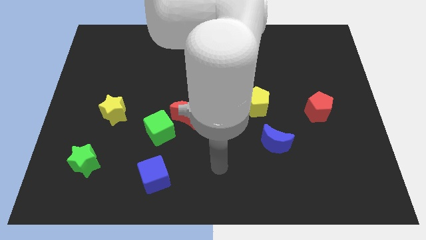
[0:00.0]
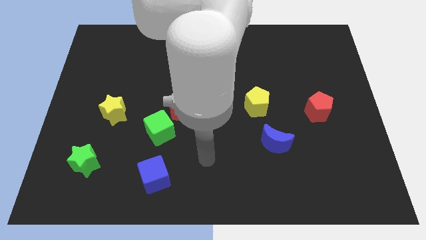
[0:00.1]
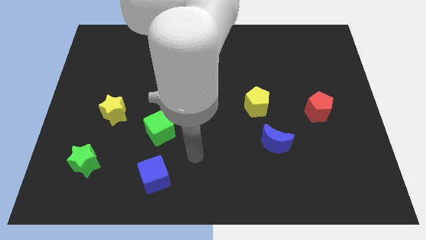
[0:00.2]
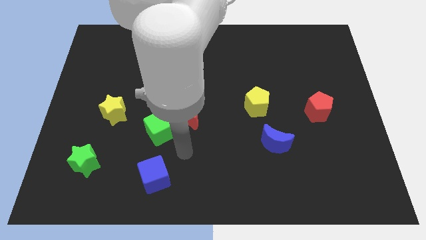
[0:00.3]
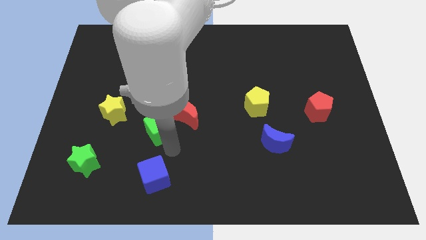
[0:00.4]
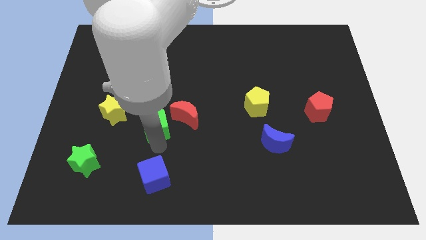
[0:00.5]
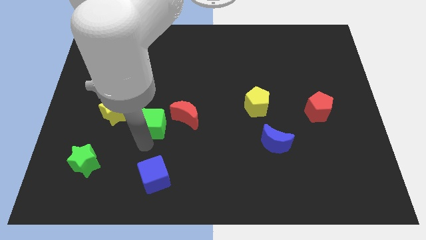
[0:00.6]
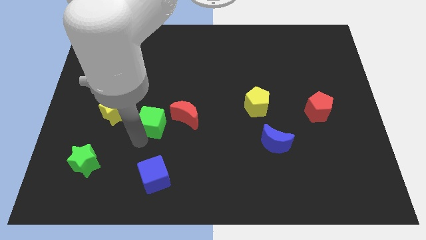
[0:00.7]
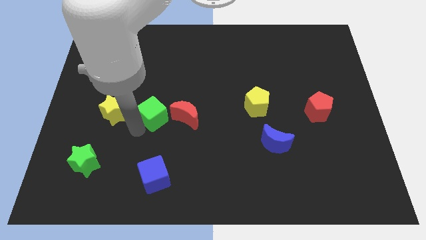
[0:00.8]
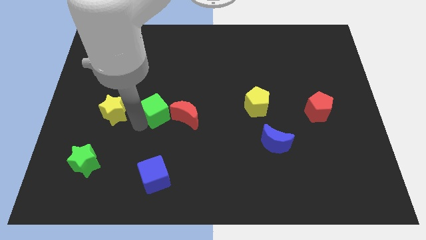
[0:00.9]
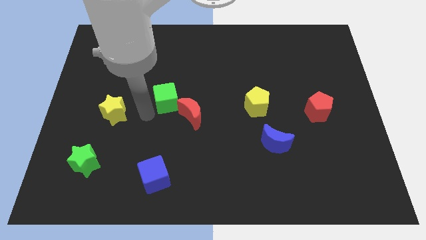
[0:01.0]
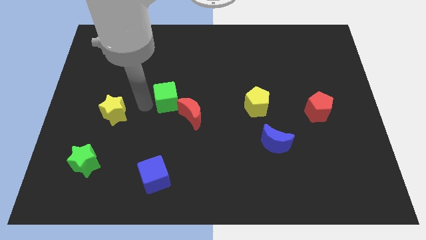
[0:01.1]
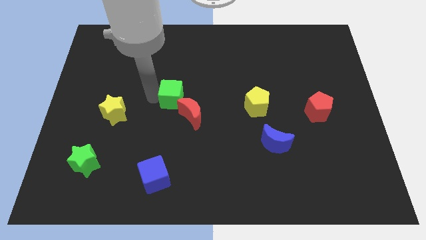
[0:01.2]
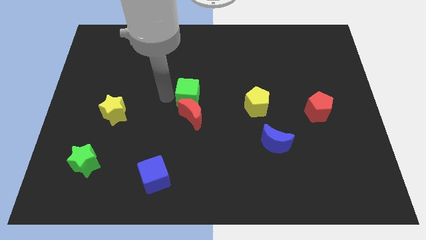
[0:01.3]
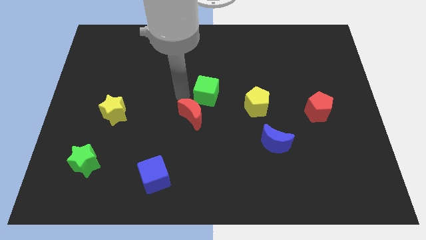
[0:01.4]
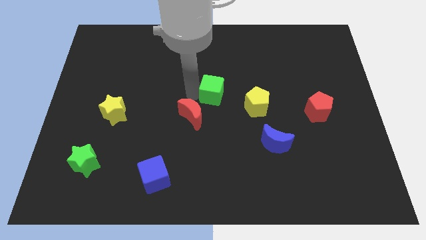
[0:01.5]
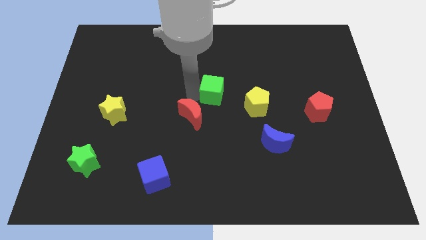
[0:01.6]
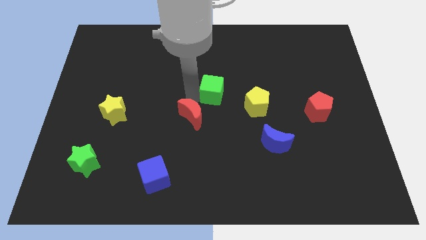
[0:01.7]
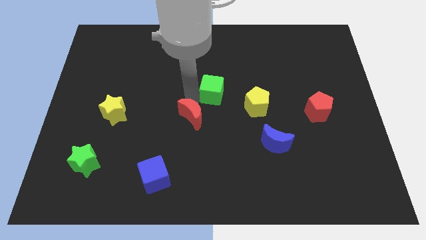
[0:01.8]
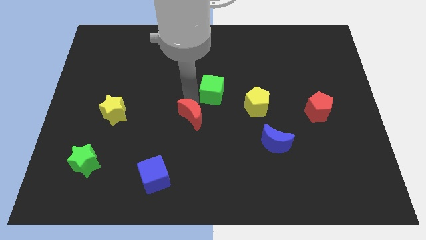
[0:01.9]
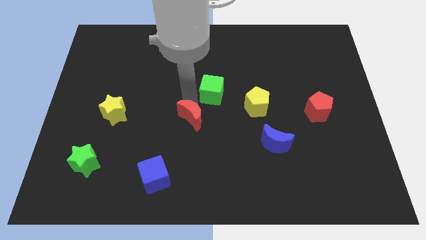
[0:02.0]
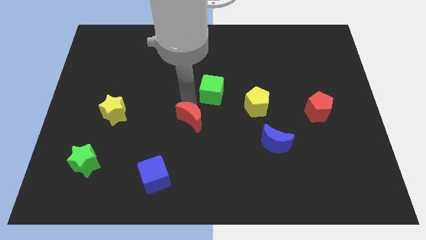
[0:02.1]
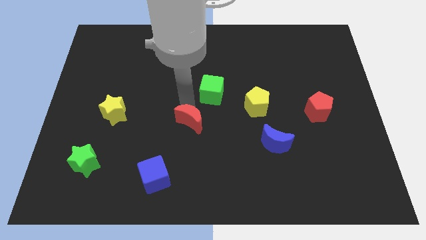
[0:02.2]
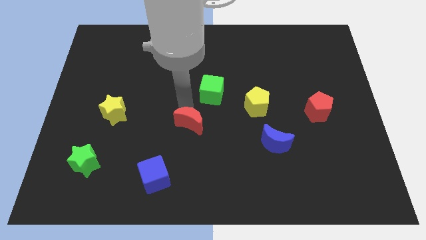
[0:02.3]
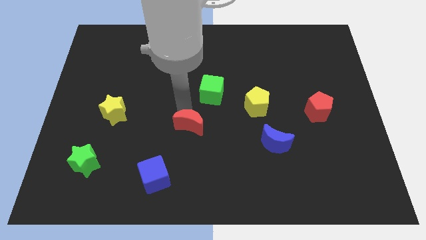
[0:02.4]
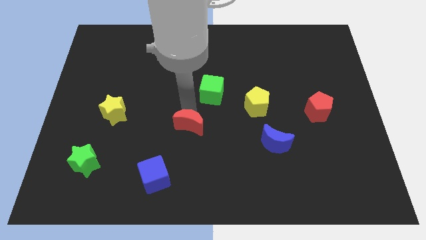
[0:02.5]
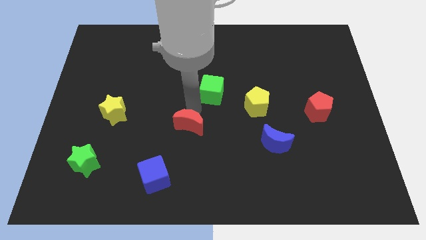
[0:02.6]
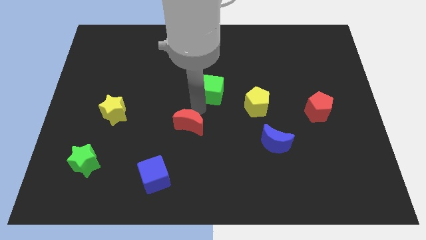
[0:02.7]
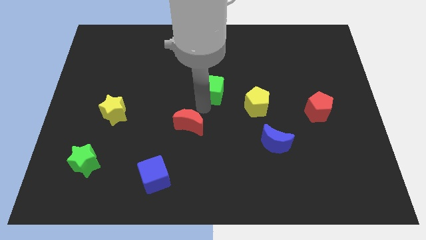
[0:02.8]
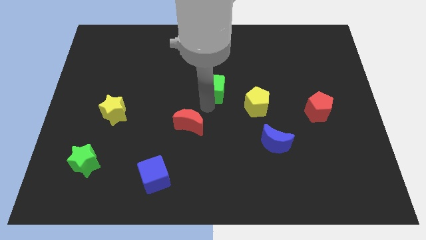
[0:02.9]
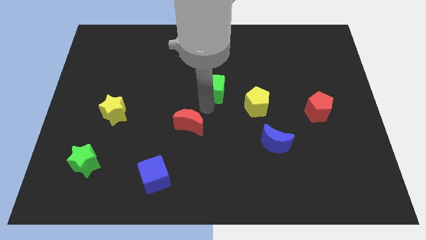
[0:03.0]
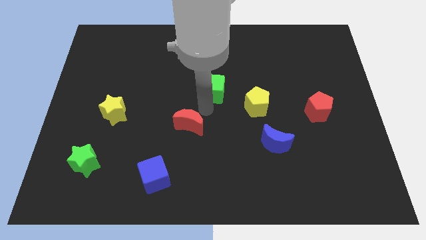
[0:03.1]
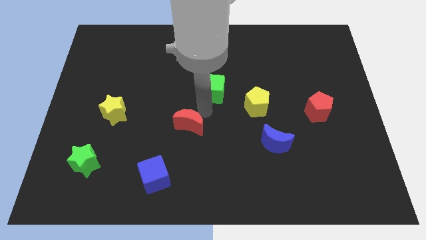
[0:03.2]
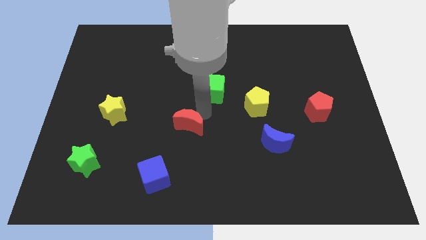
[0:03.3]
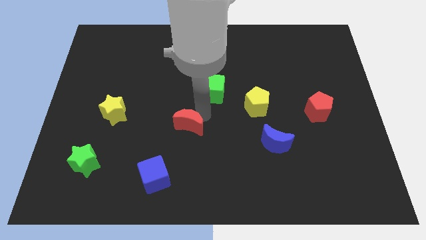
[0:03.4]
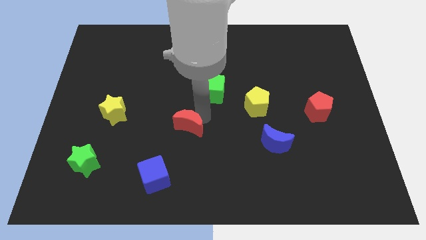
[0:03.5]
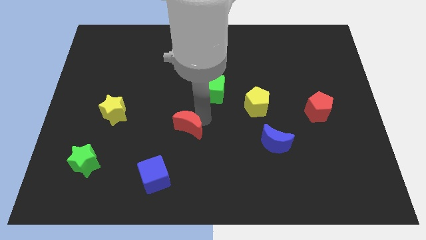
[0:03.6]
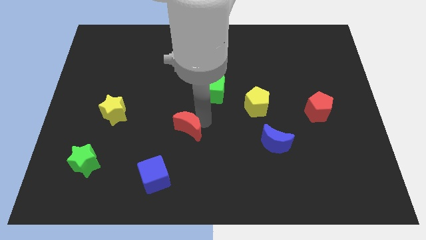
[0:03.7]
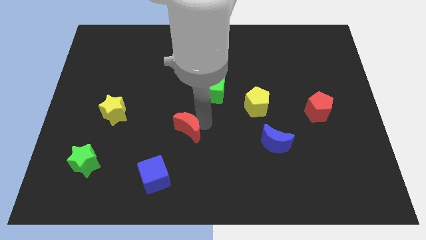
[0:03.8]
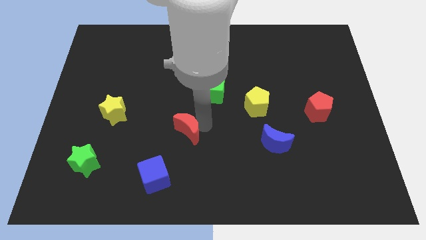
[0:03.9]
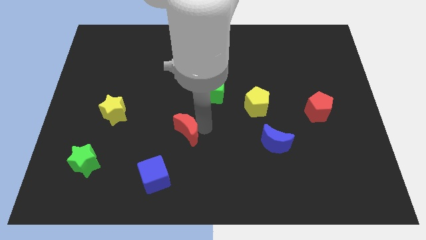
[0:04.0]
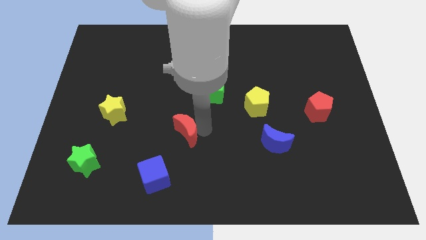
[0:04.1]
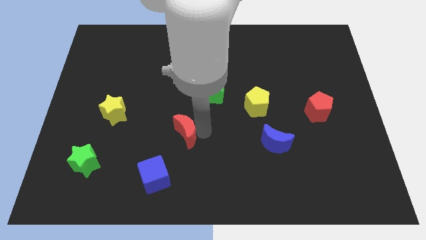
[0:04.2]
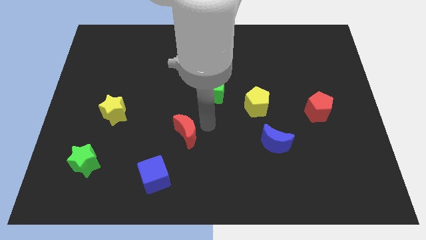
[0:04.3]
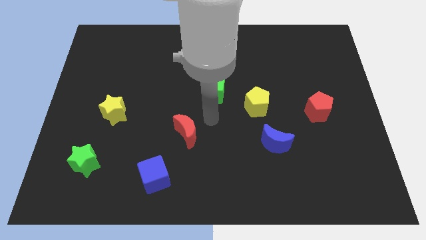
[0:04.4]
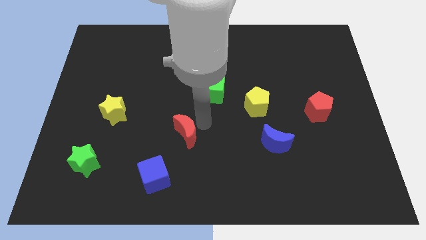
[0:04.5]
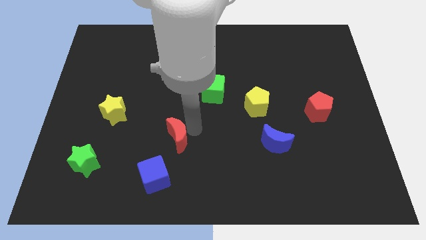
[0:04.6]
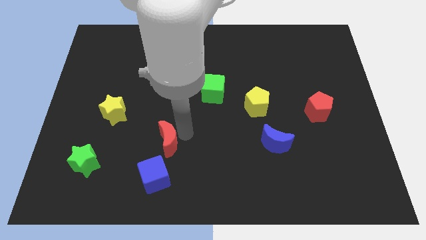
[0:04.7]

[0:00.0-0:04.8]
slightly slide the red moon down and left diagonally

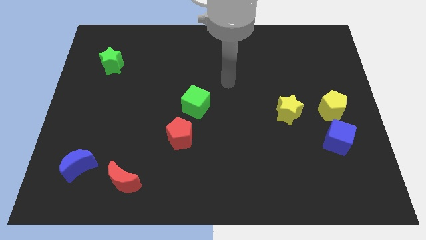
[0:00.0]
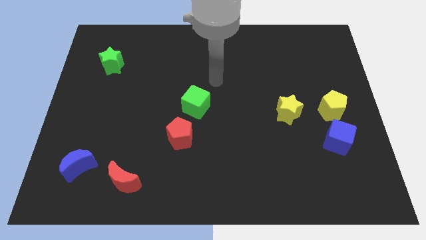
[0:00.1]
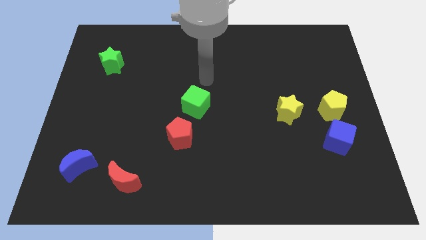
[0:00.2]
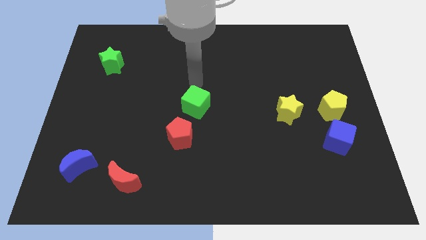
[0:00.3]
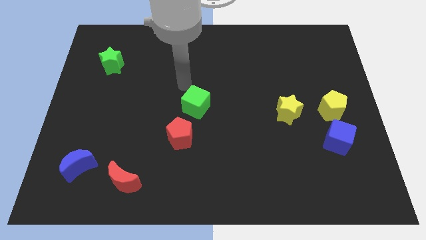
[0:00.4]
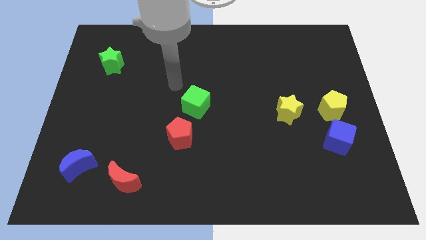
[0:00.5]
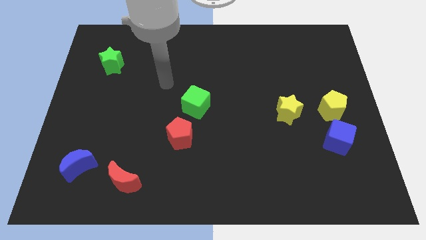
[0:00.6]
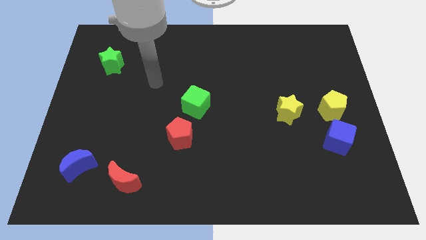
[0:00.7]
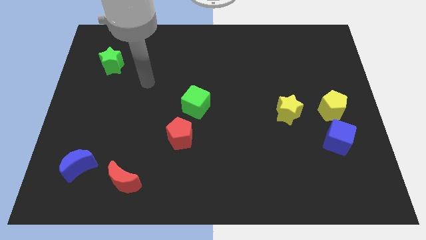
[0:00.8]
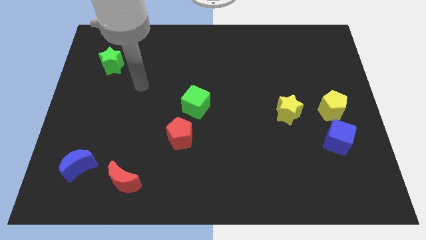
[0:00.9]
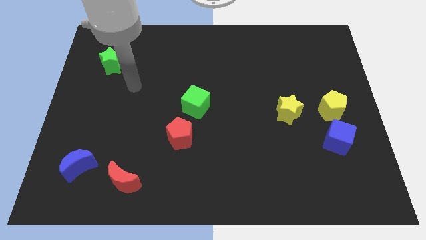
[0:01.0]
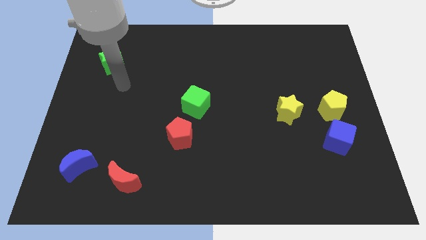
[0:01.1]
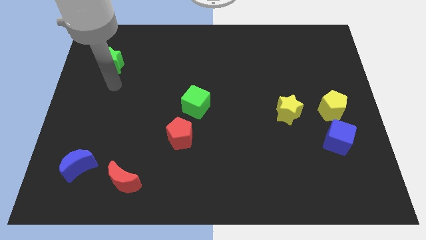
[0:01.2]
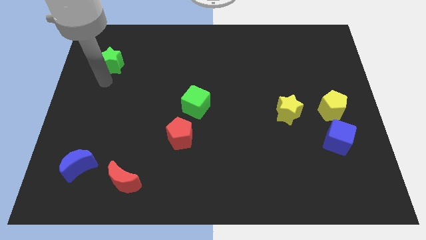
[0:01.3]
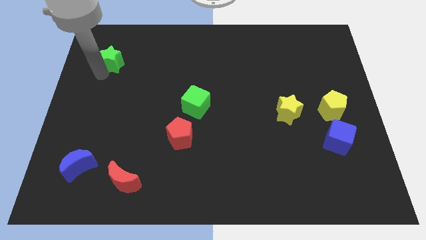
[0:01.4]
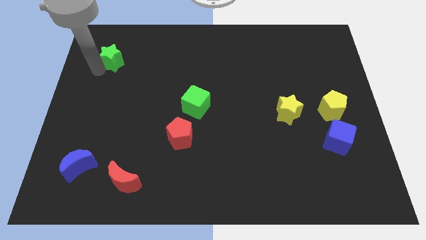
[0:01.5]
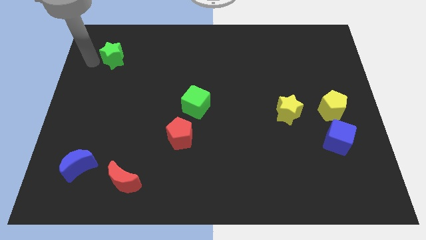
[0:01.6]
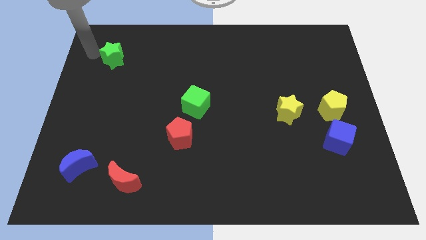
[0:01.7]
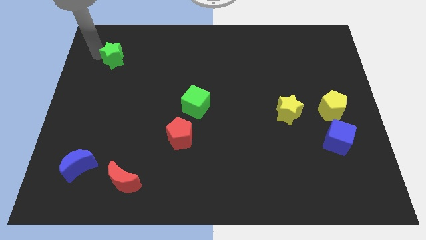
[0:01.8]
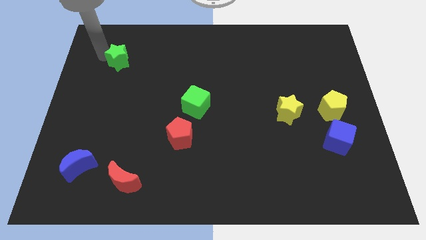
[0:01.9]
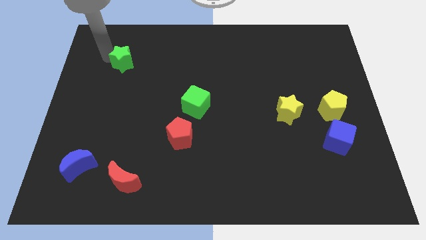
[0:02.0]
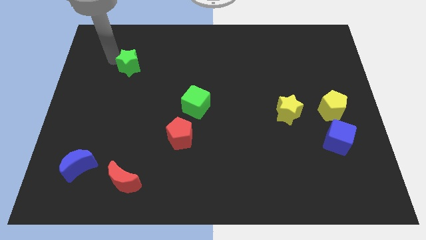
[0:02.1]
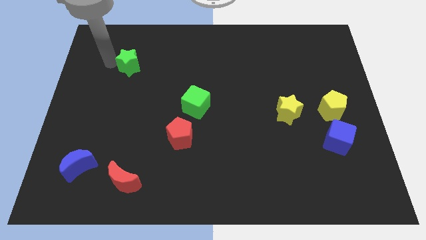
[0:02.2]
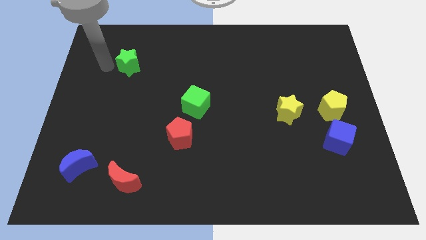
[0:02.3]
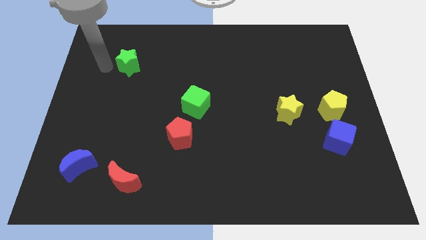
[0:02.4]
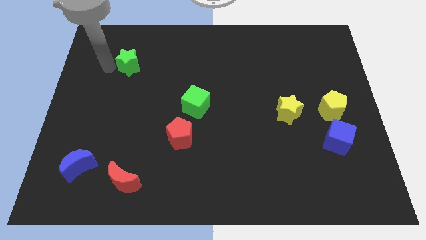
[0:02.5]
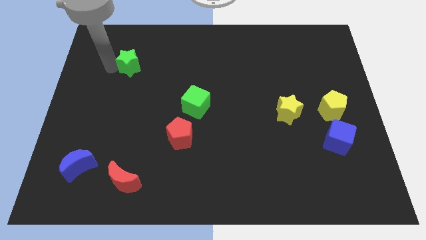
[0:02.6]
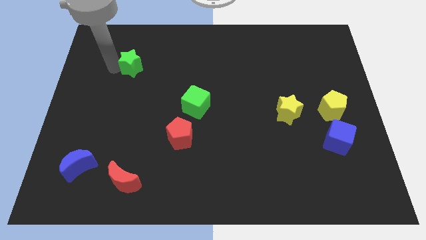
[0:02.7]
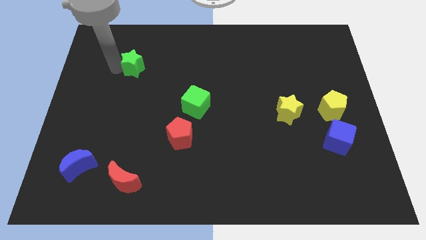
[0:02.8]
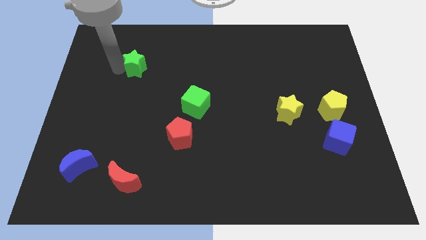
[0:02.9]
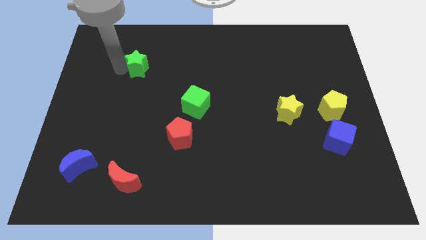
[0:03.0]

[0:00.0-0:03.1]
move the green star right slightly
